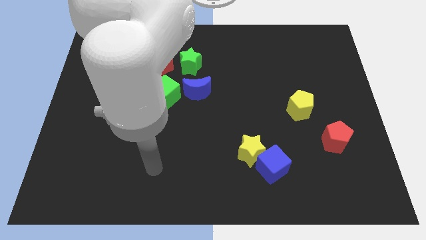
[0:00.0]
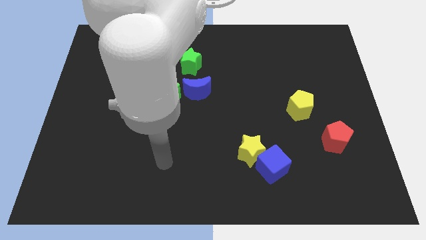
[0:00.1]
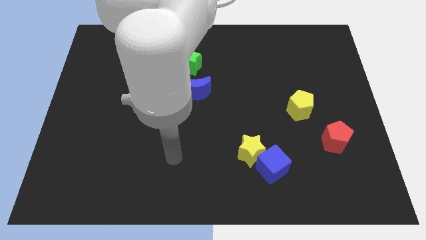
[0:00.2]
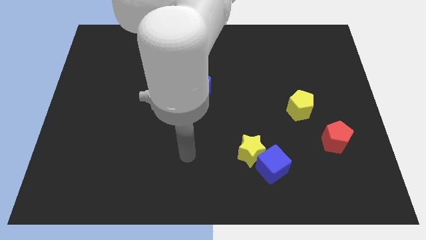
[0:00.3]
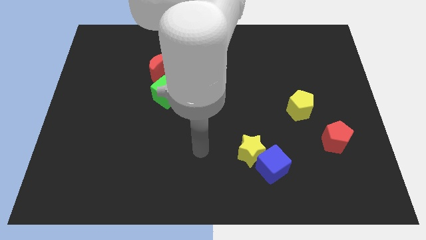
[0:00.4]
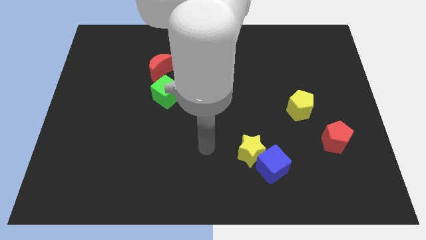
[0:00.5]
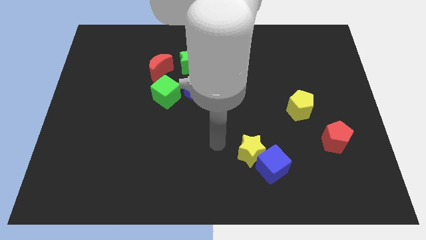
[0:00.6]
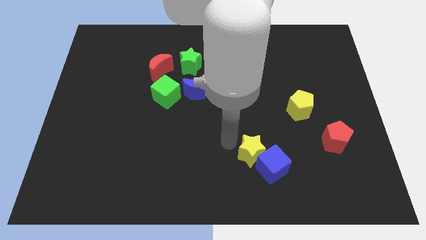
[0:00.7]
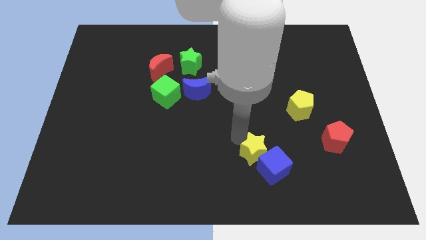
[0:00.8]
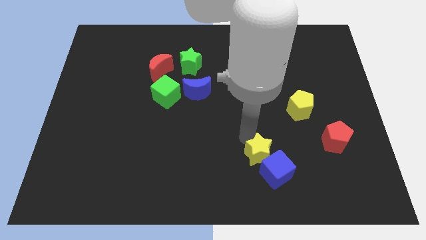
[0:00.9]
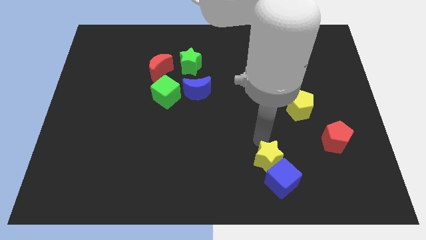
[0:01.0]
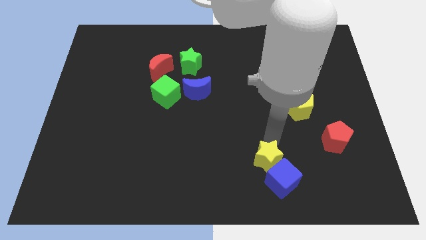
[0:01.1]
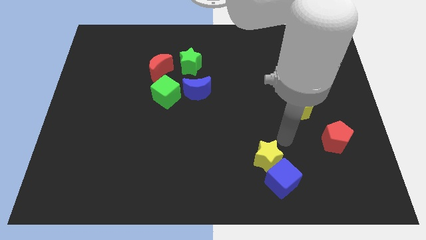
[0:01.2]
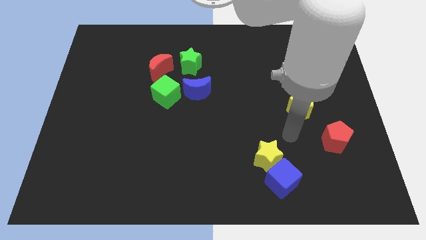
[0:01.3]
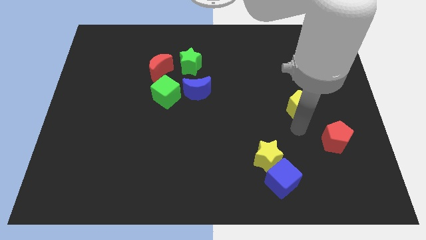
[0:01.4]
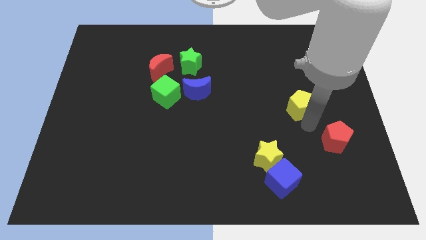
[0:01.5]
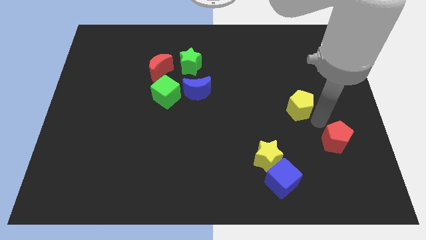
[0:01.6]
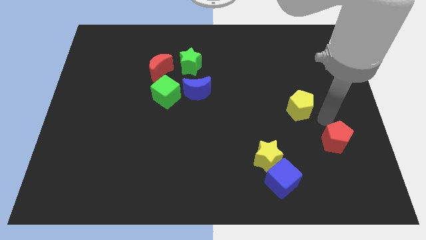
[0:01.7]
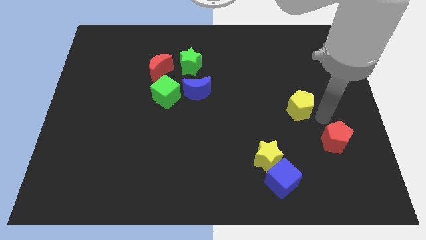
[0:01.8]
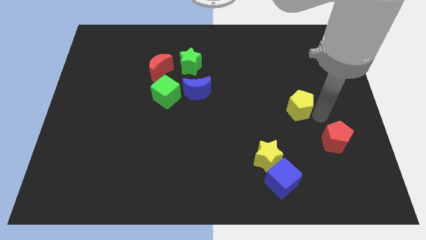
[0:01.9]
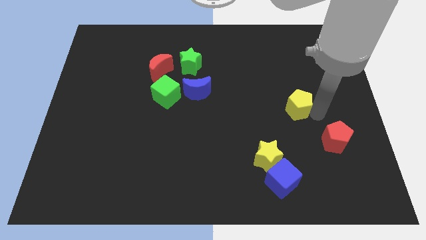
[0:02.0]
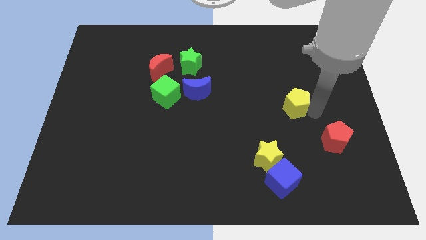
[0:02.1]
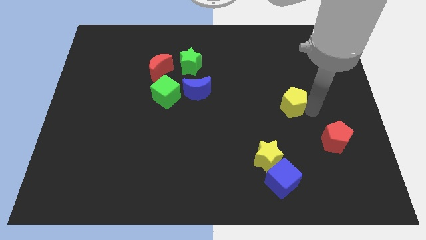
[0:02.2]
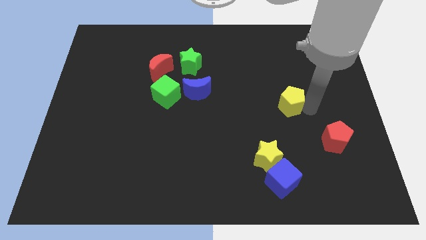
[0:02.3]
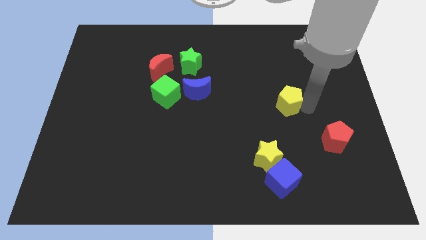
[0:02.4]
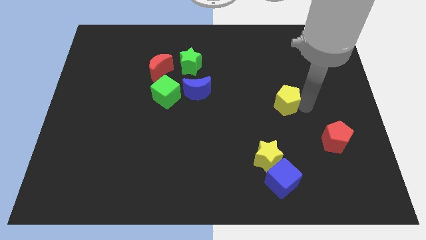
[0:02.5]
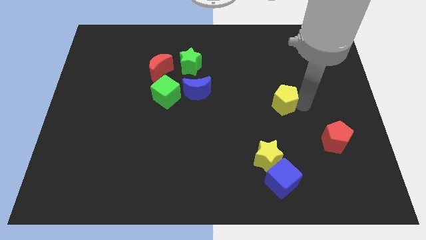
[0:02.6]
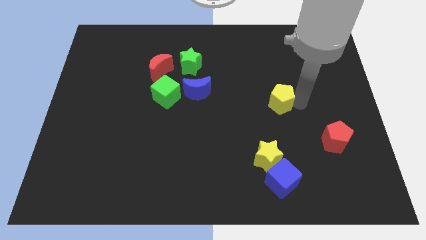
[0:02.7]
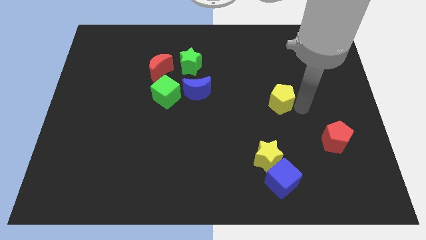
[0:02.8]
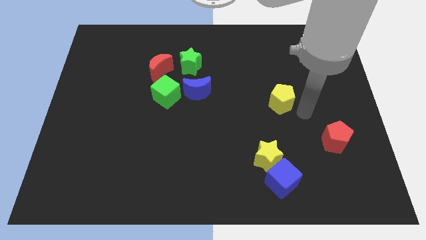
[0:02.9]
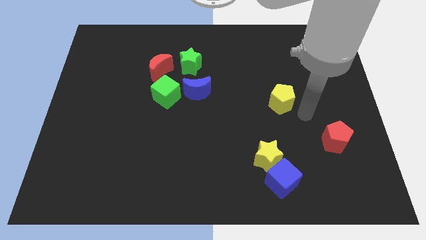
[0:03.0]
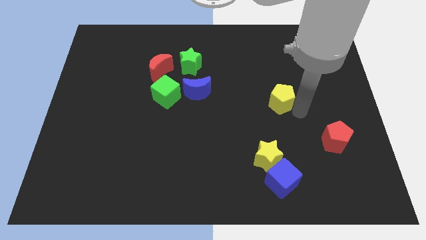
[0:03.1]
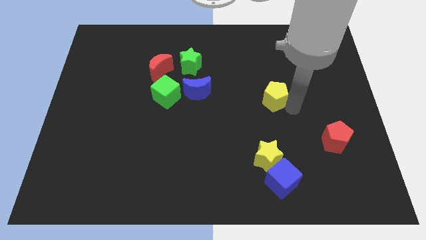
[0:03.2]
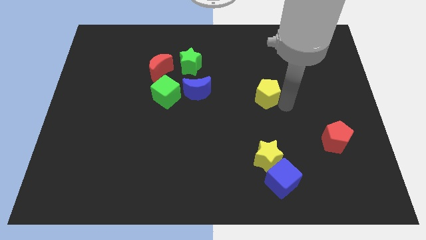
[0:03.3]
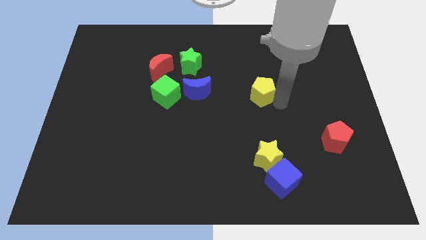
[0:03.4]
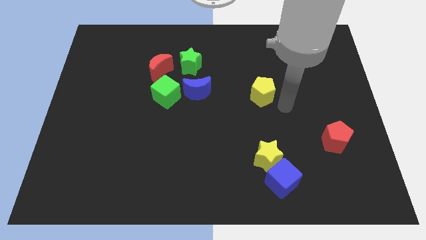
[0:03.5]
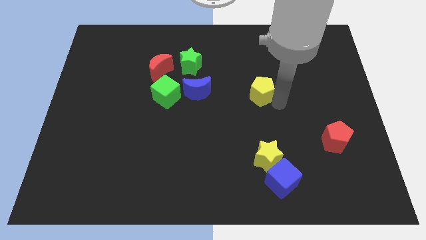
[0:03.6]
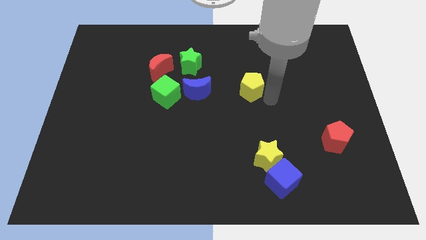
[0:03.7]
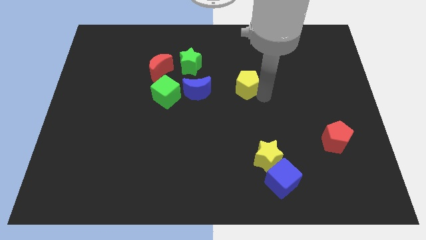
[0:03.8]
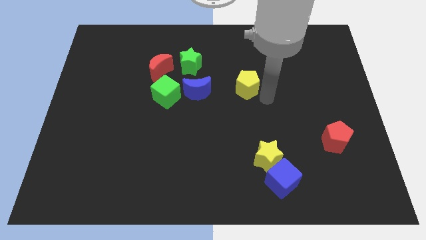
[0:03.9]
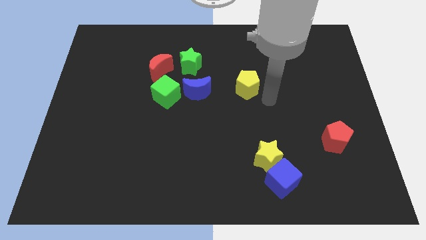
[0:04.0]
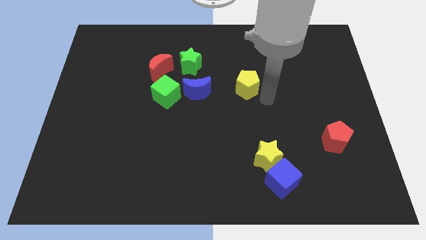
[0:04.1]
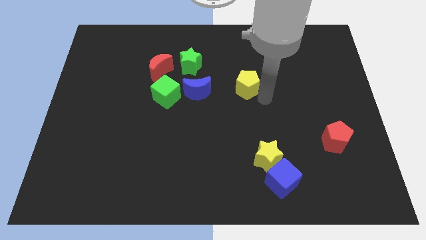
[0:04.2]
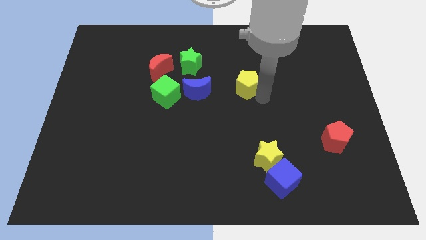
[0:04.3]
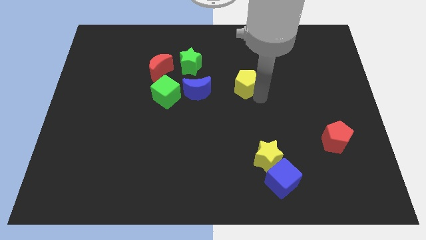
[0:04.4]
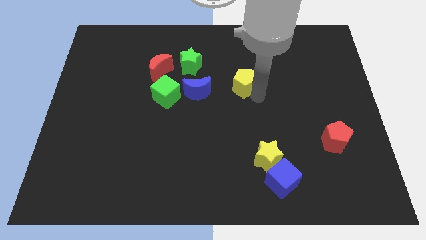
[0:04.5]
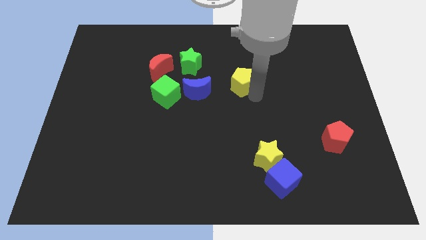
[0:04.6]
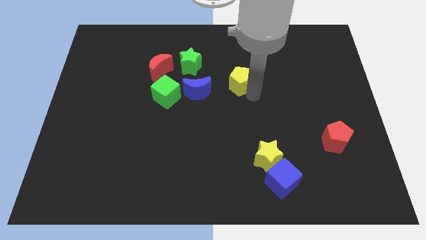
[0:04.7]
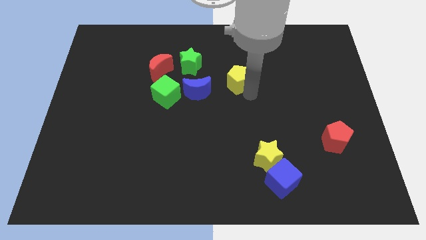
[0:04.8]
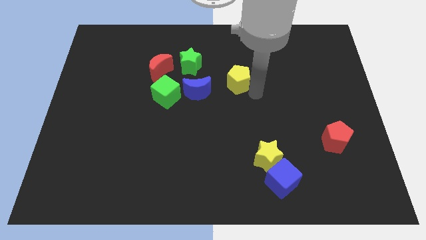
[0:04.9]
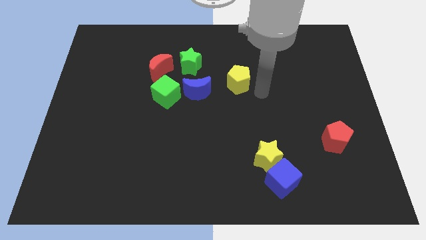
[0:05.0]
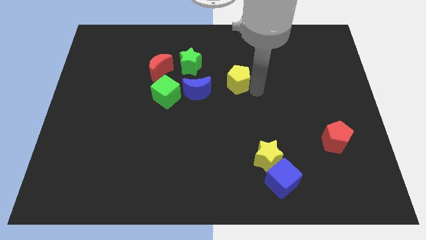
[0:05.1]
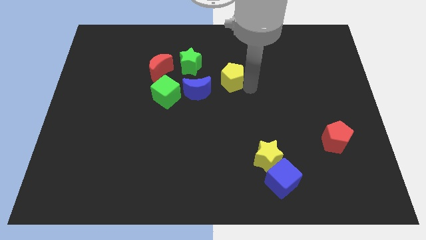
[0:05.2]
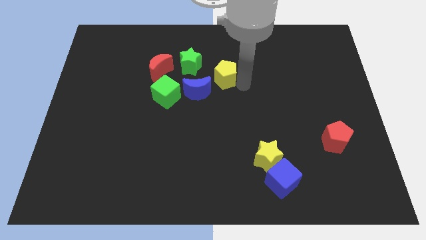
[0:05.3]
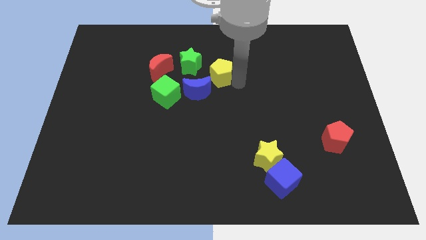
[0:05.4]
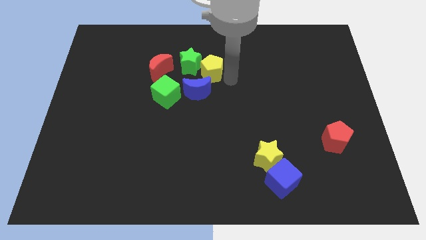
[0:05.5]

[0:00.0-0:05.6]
put the yellow pentagon towards the green star

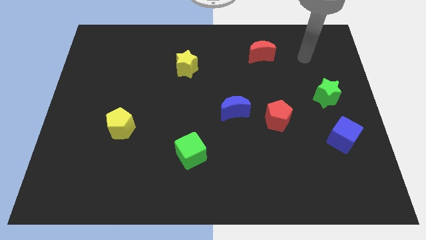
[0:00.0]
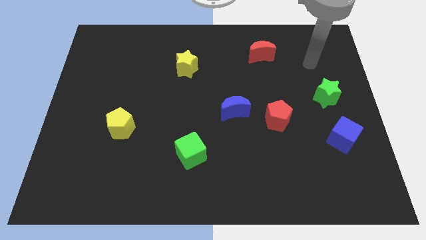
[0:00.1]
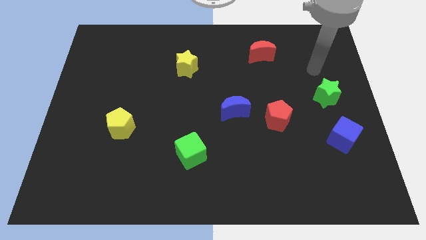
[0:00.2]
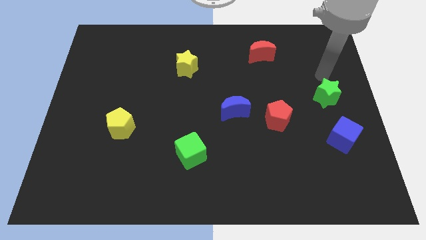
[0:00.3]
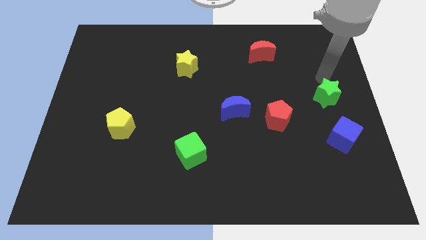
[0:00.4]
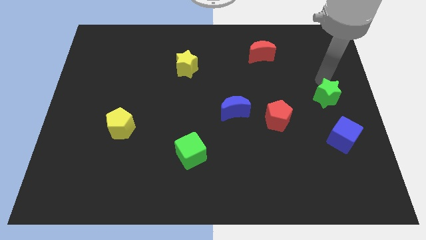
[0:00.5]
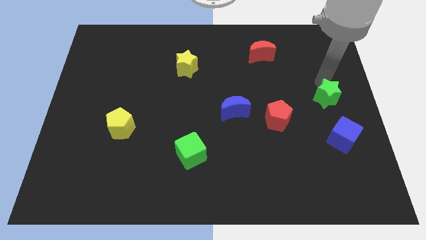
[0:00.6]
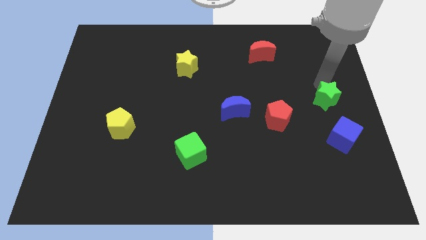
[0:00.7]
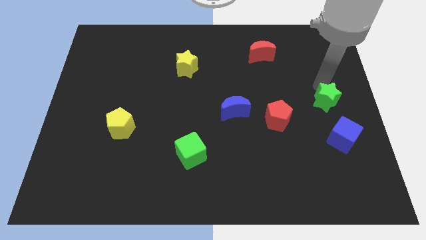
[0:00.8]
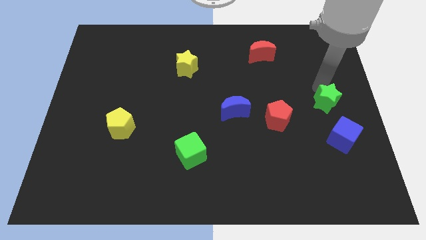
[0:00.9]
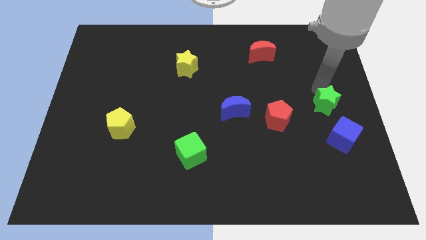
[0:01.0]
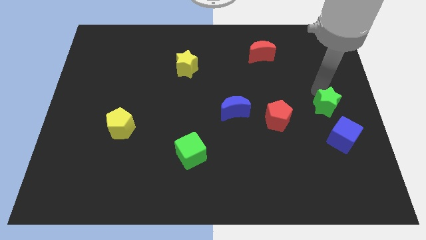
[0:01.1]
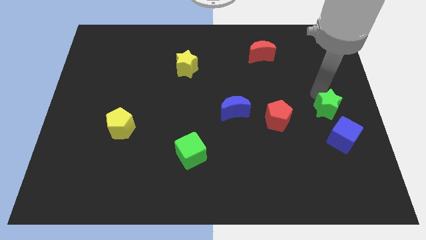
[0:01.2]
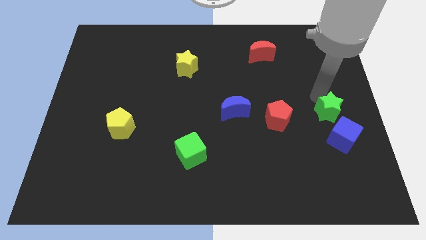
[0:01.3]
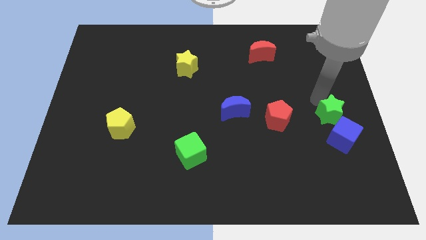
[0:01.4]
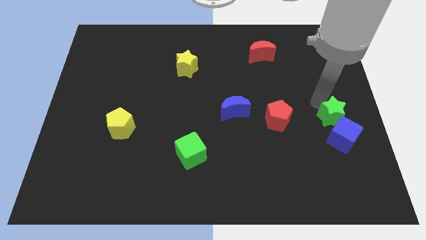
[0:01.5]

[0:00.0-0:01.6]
slide the green star towards the blue cube
